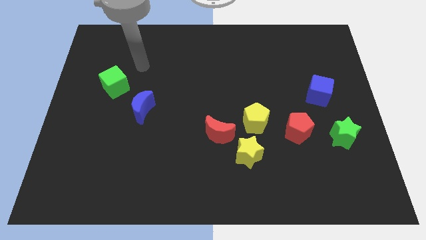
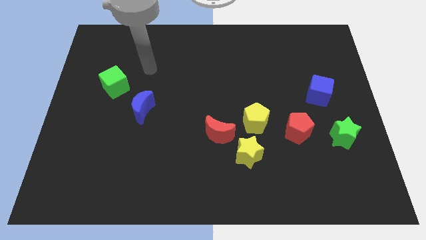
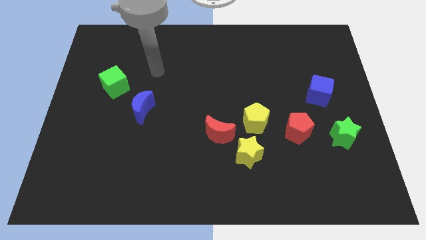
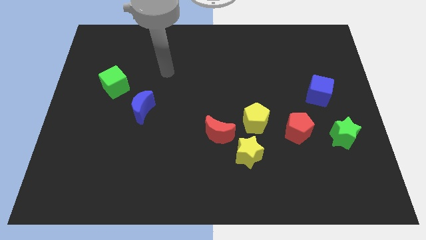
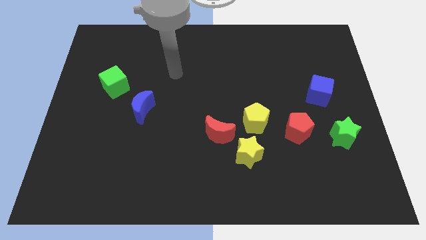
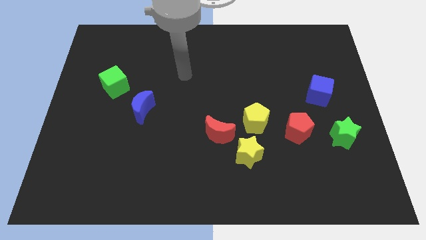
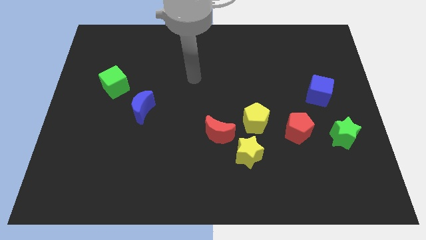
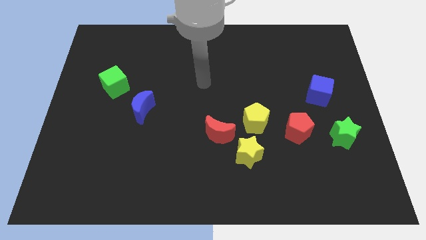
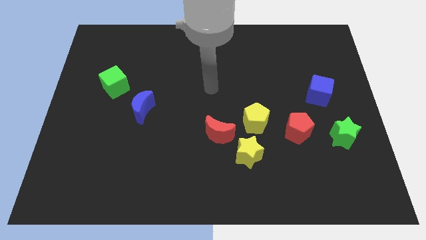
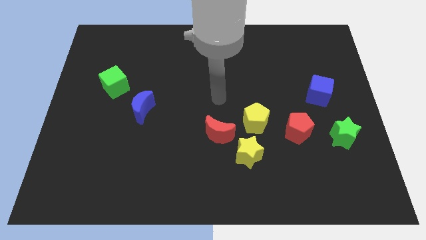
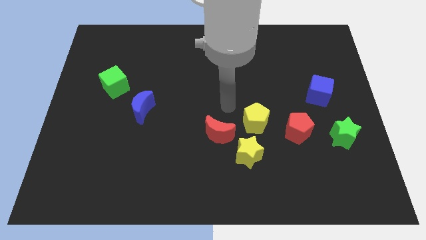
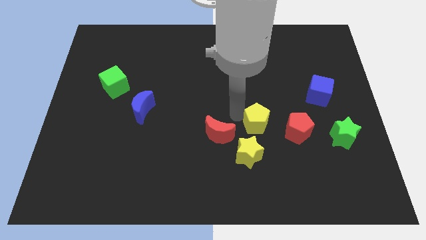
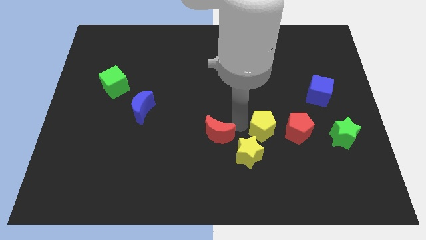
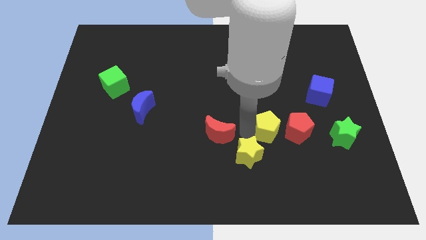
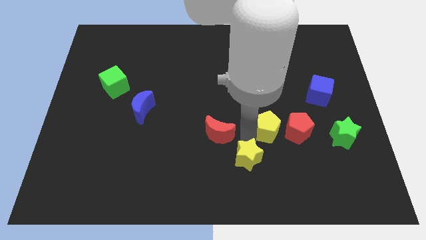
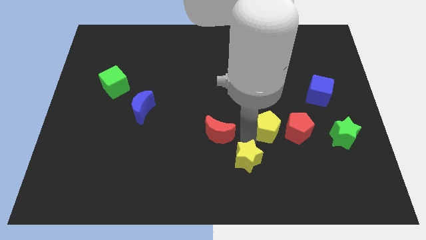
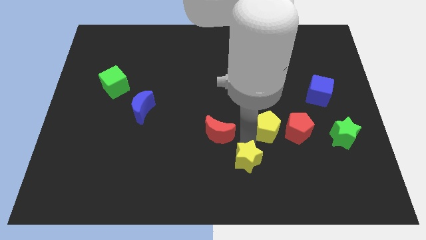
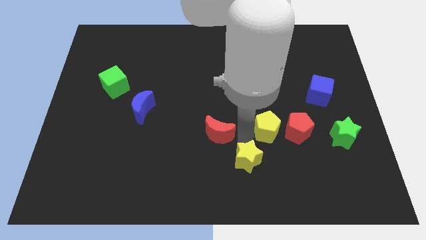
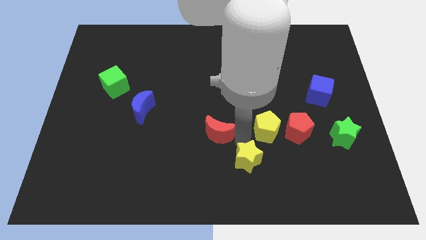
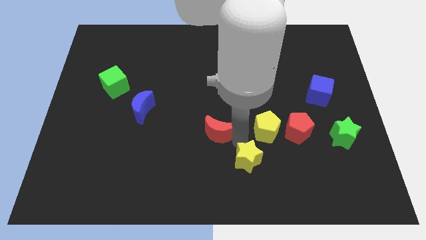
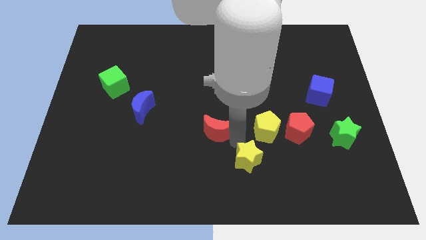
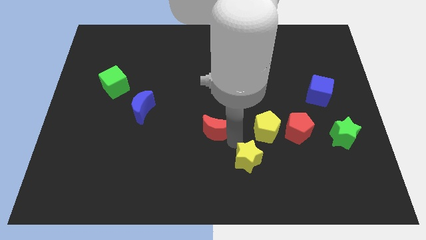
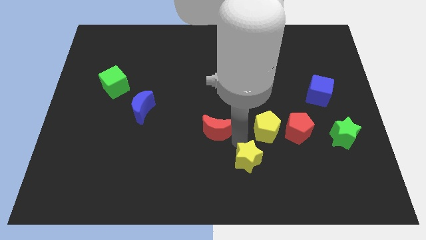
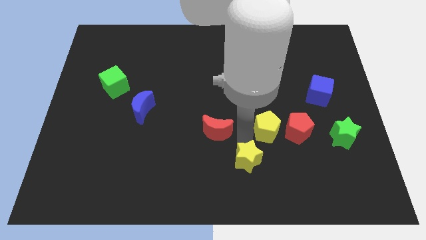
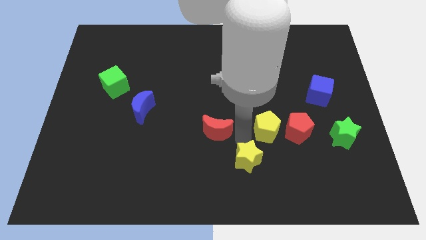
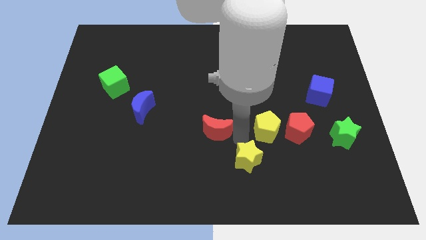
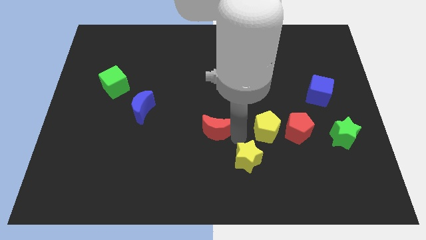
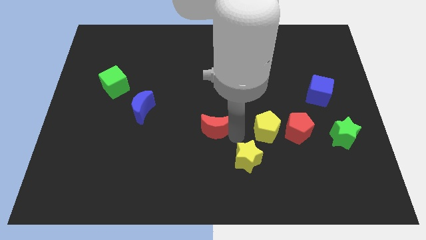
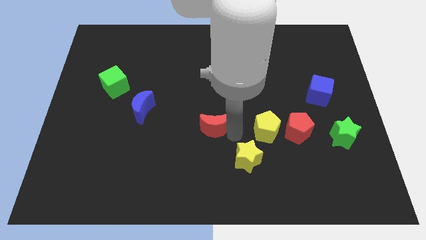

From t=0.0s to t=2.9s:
pull the red moon apart from the yellow star and yellow pentagon

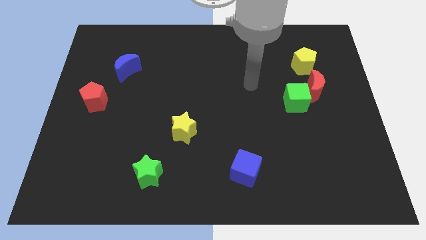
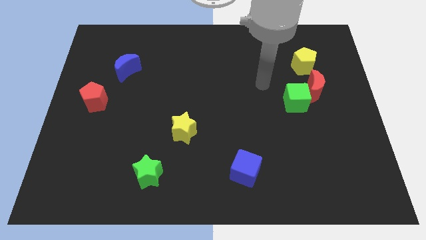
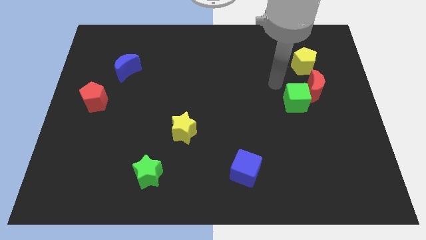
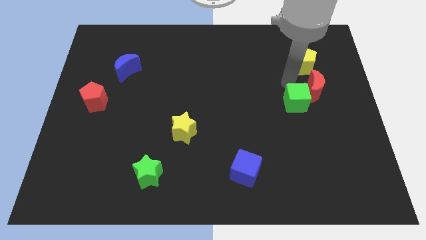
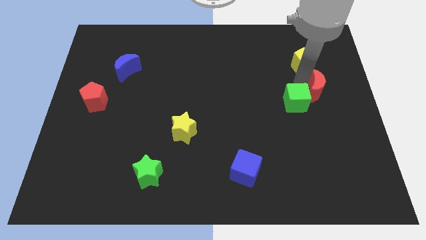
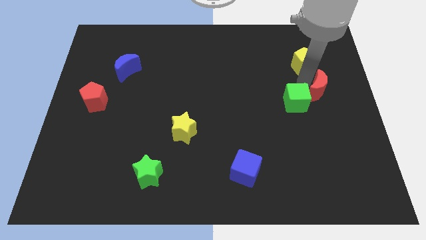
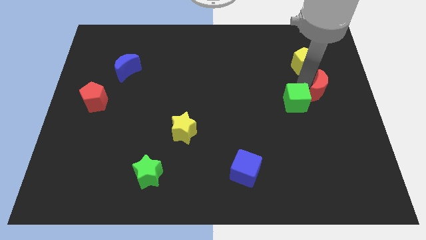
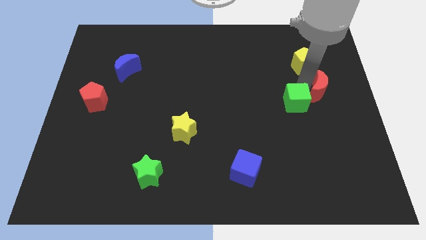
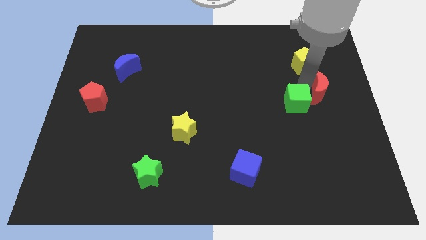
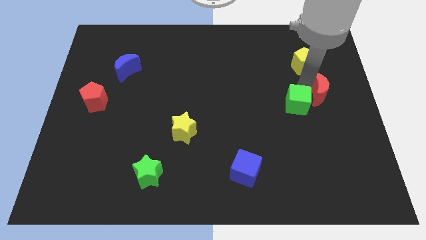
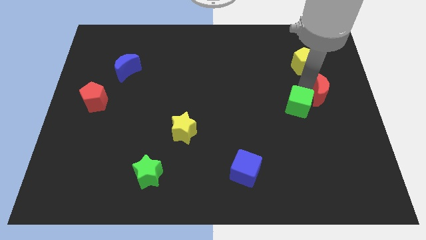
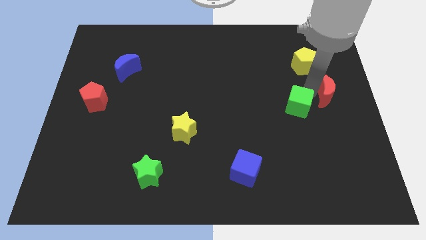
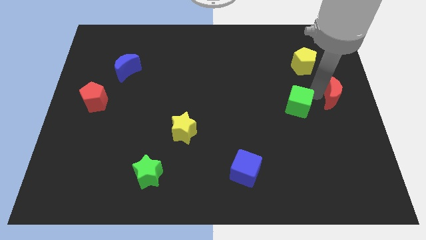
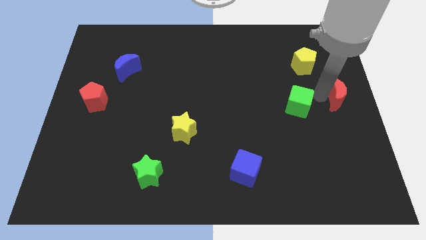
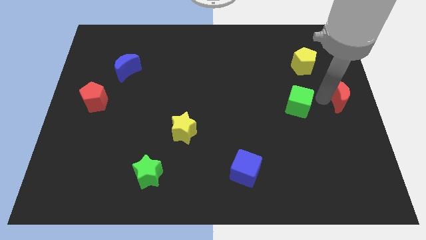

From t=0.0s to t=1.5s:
pull the green cube apart from the red moon

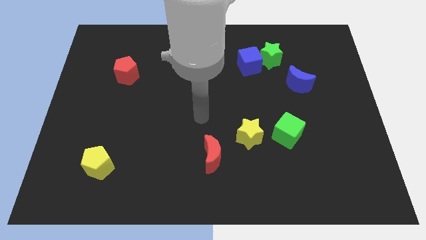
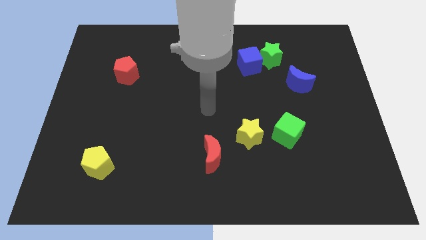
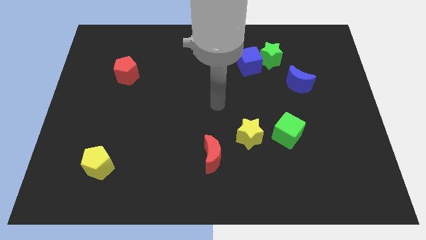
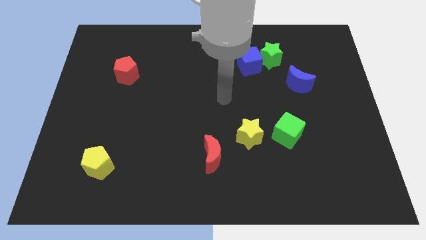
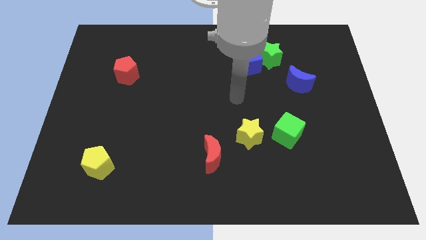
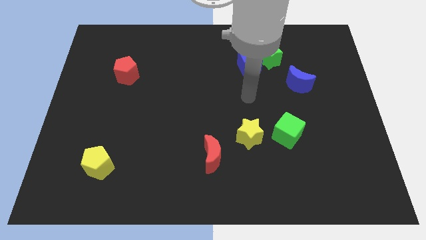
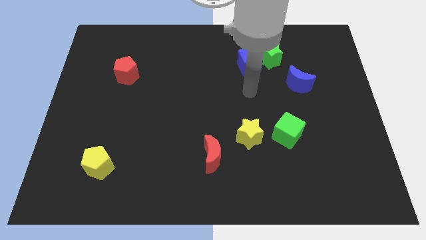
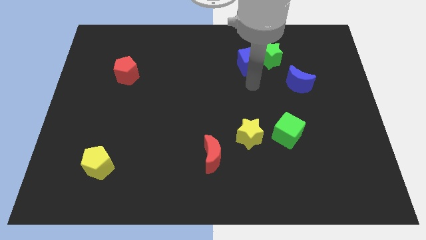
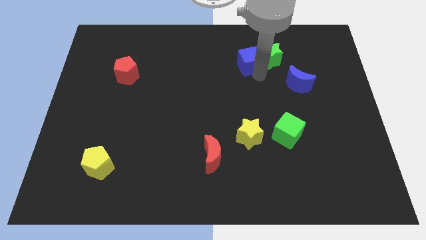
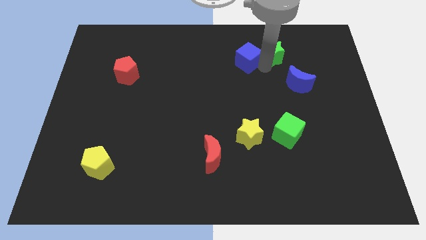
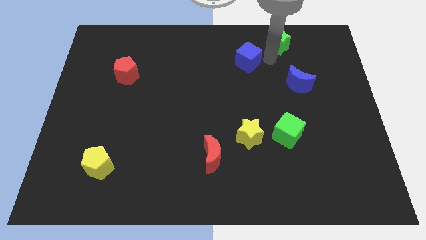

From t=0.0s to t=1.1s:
pull the blue cube apart from the green star

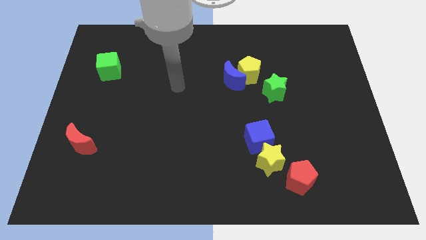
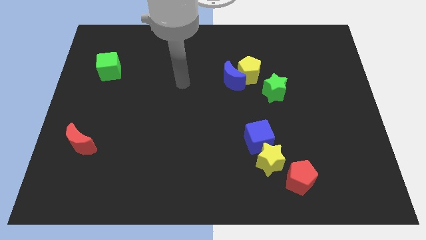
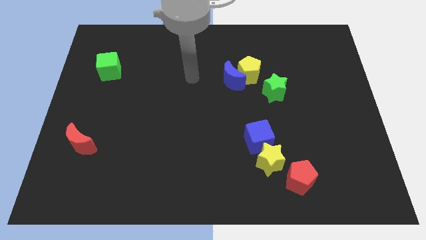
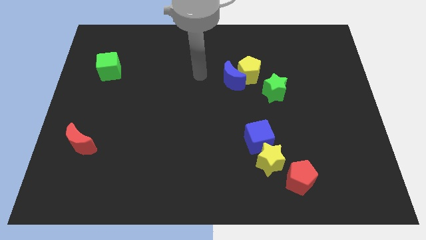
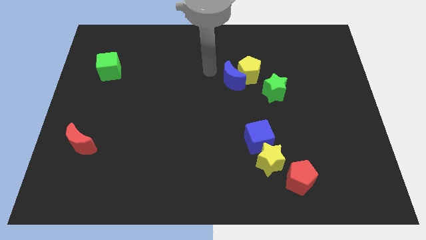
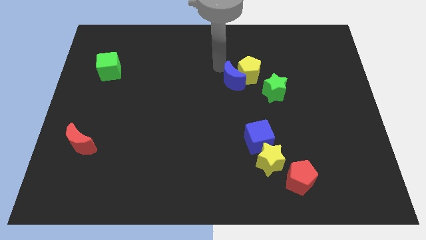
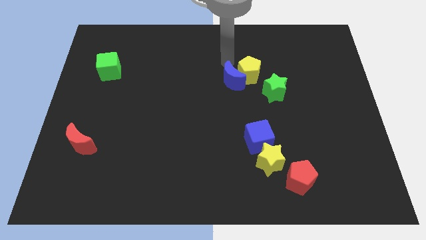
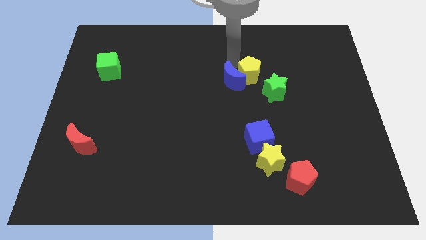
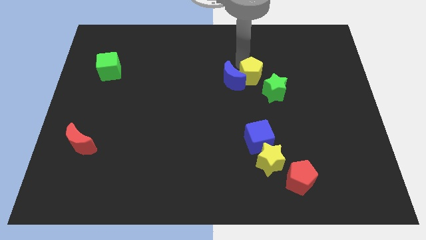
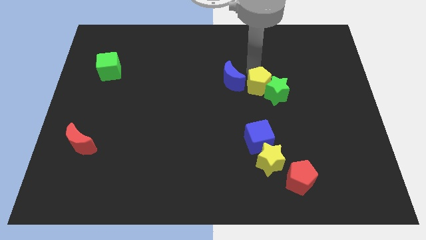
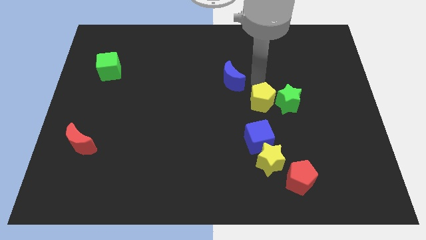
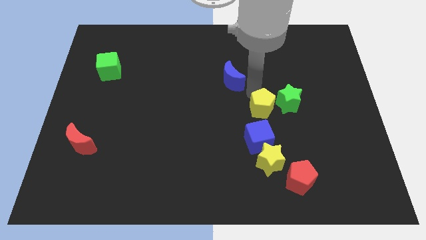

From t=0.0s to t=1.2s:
pull the blue moon apart from the yellow pentagon

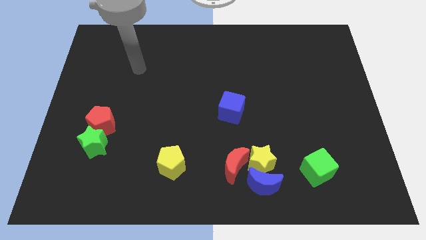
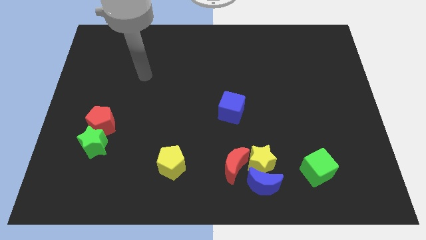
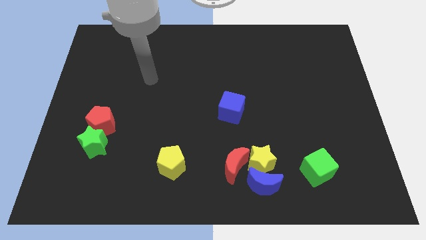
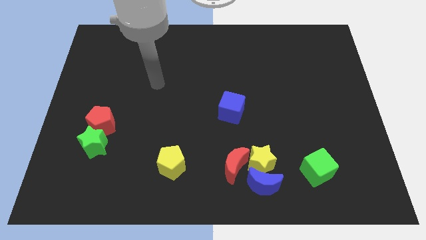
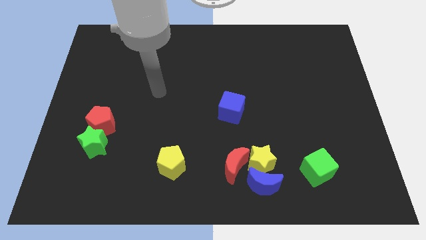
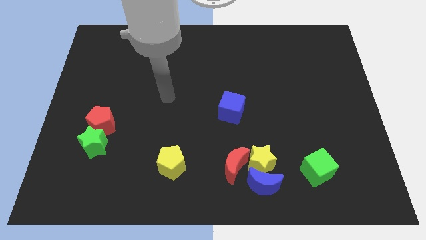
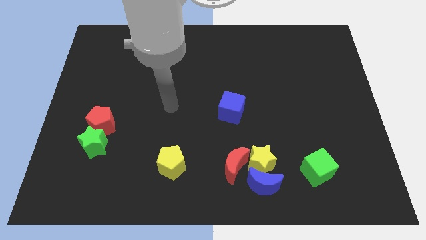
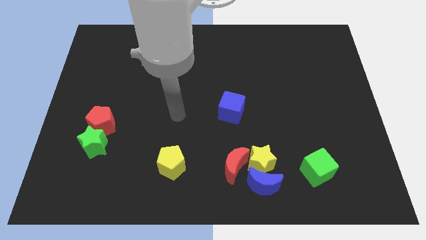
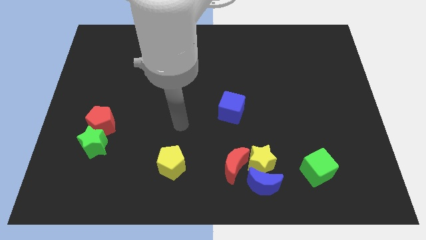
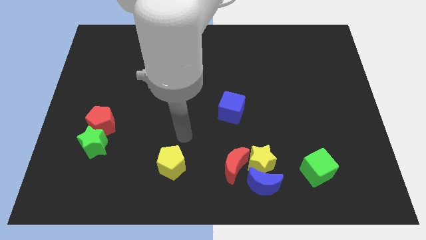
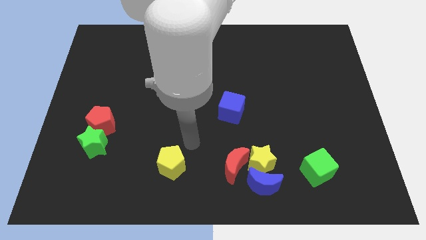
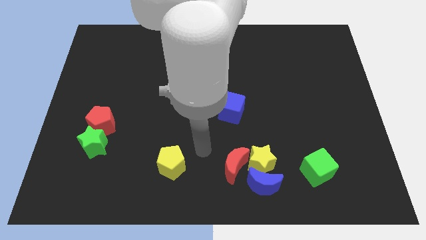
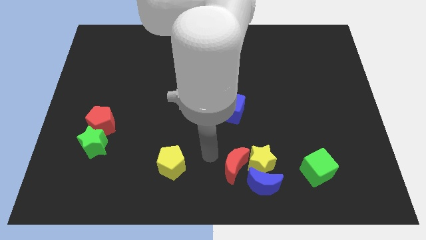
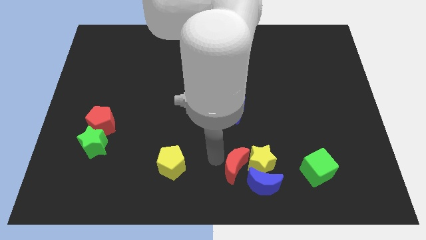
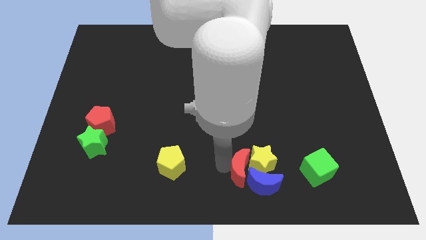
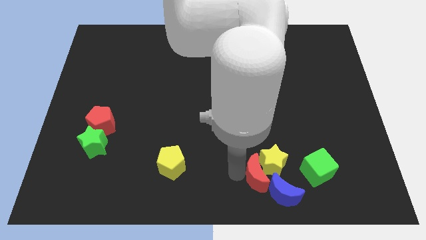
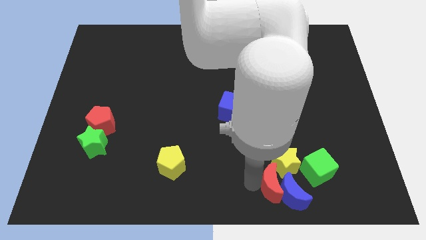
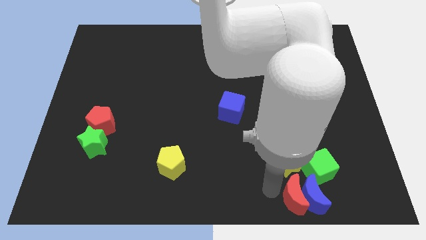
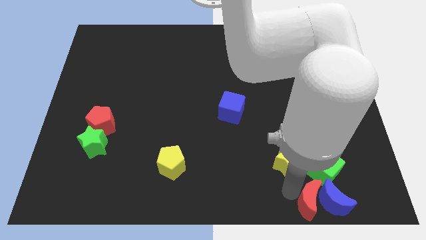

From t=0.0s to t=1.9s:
separate the yellow star from the blue moon and red moon

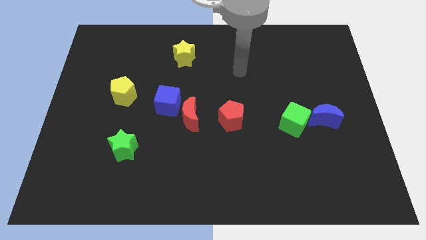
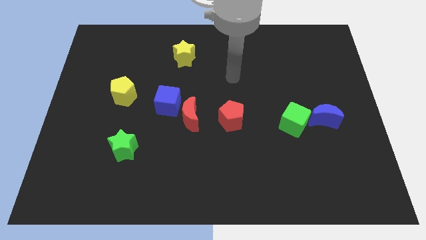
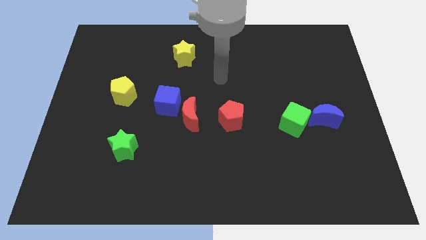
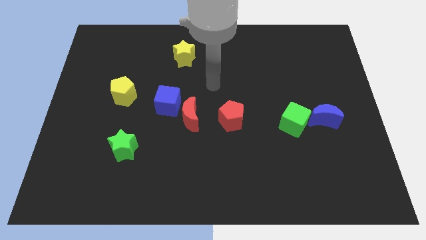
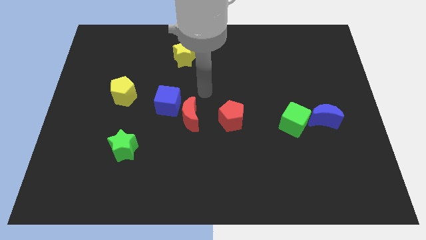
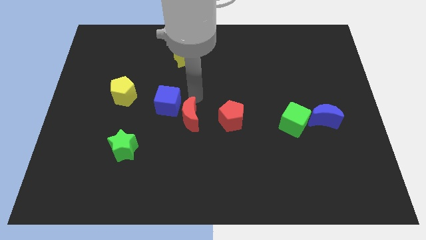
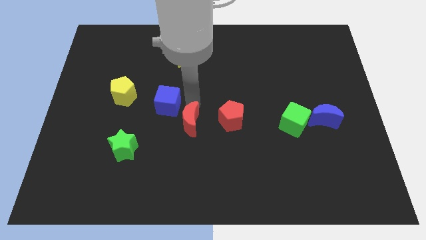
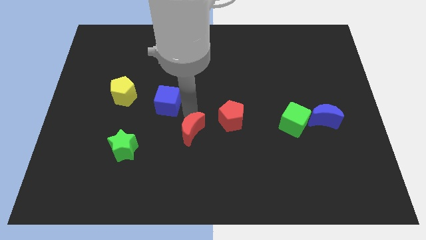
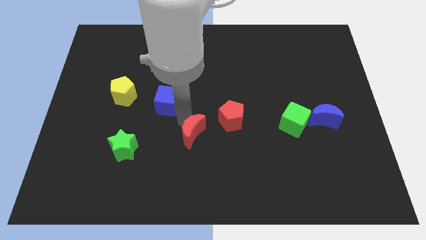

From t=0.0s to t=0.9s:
separate the blue cube from the red moon
